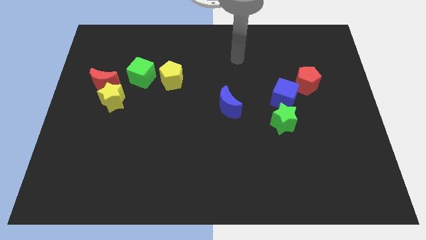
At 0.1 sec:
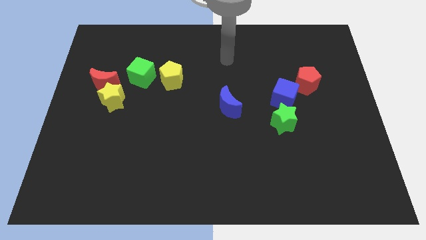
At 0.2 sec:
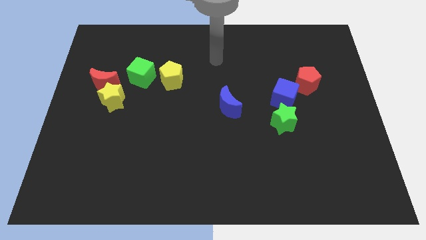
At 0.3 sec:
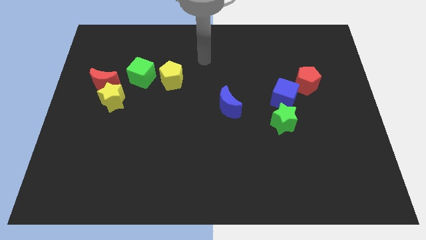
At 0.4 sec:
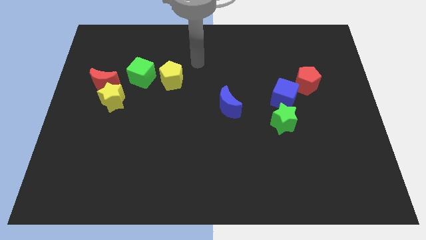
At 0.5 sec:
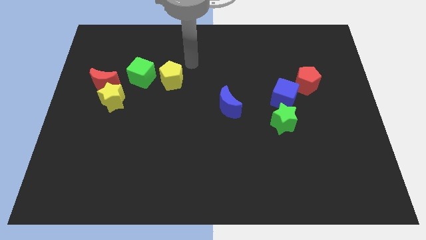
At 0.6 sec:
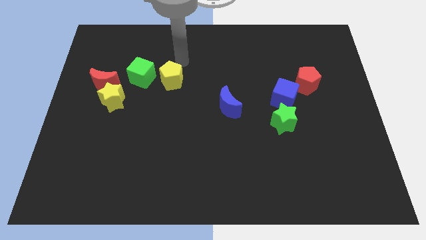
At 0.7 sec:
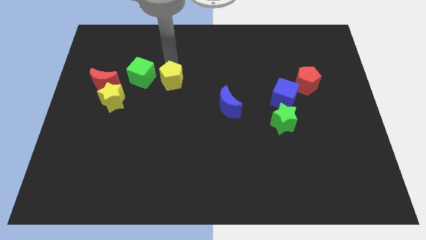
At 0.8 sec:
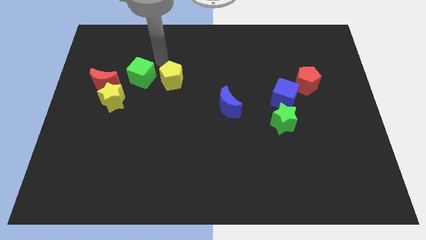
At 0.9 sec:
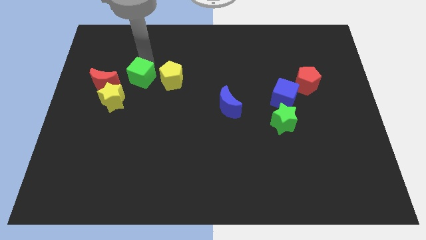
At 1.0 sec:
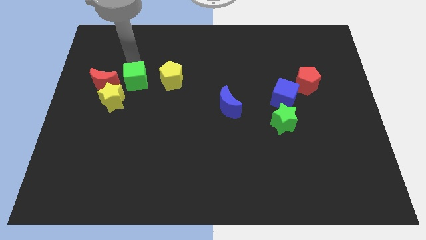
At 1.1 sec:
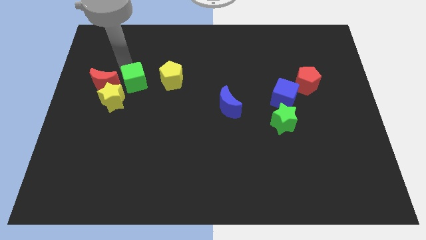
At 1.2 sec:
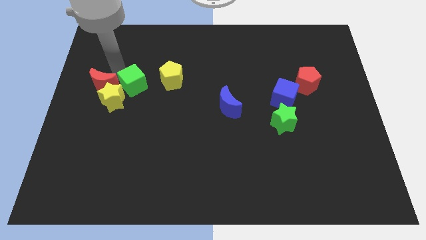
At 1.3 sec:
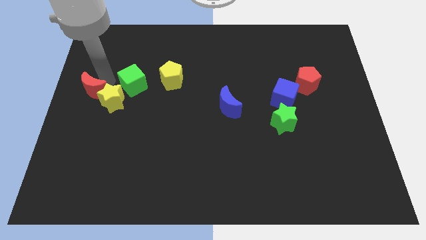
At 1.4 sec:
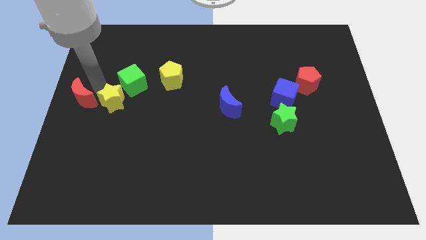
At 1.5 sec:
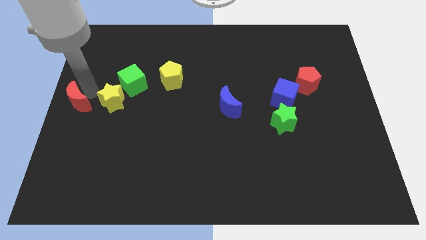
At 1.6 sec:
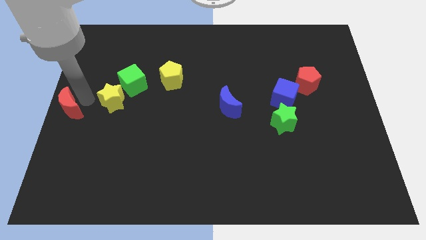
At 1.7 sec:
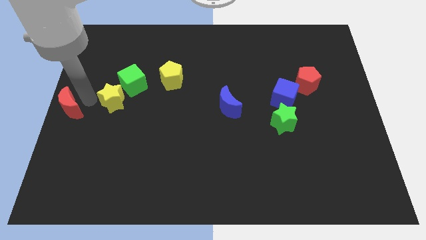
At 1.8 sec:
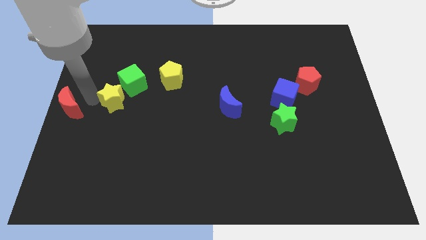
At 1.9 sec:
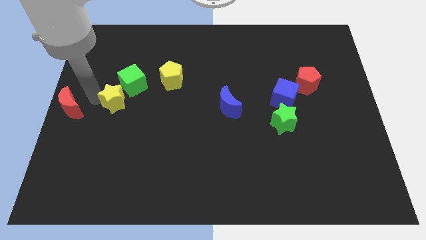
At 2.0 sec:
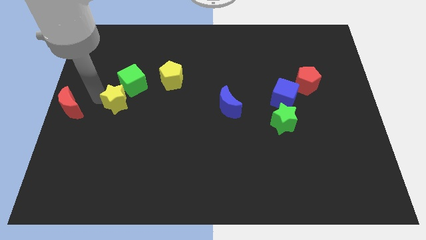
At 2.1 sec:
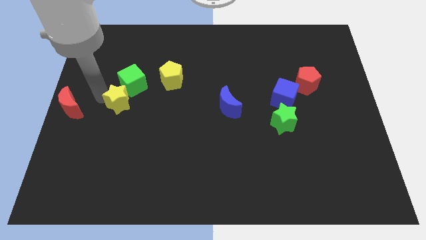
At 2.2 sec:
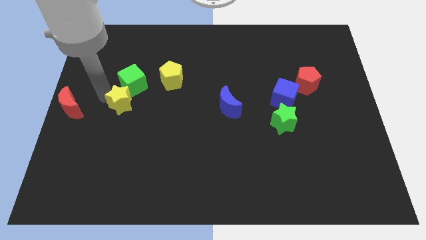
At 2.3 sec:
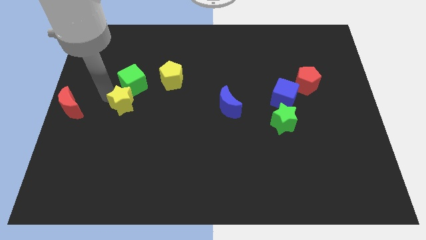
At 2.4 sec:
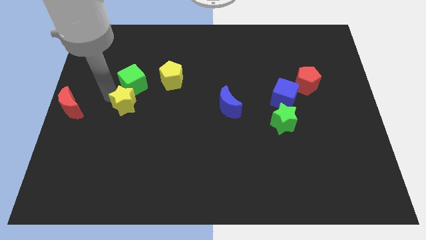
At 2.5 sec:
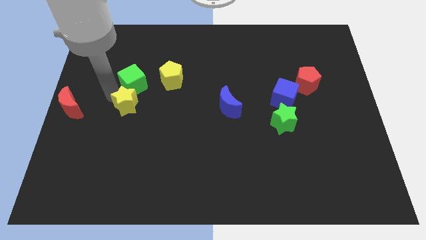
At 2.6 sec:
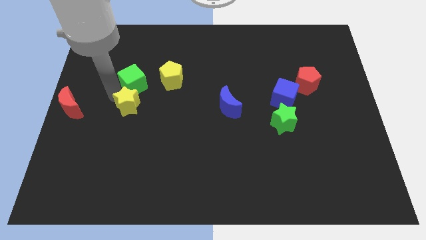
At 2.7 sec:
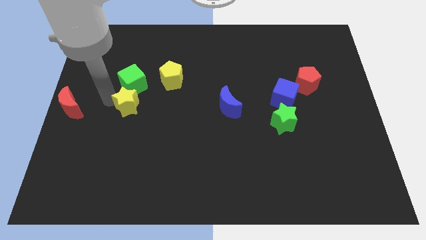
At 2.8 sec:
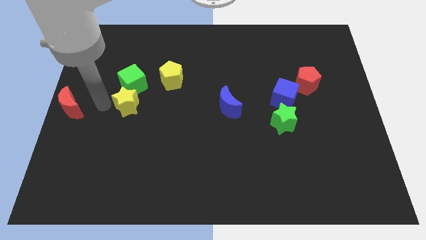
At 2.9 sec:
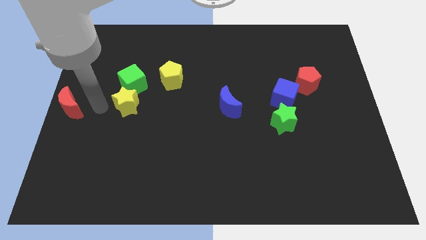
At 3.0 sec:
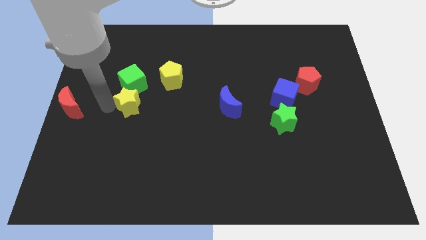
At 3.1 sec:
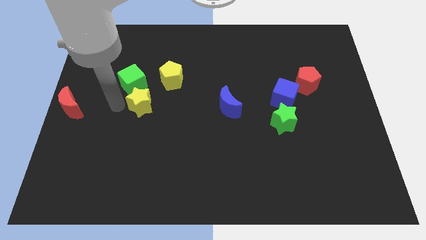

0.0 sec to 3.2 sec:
push the yellow star right a bit

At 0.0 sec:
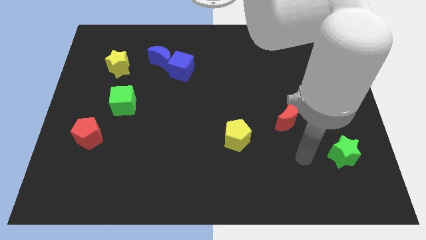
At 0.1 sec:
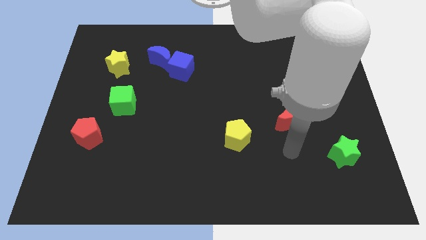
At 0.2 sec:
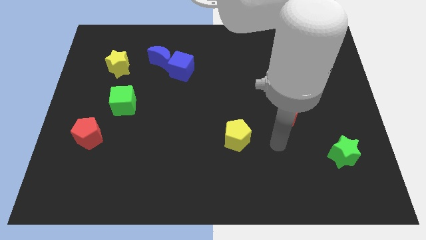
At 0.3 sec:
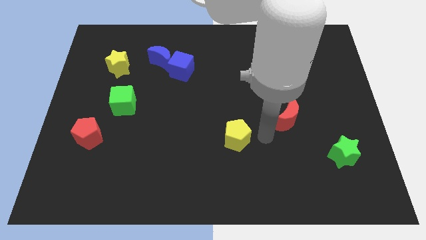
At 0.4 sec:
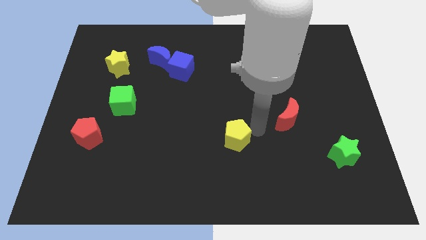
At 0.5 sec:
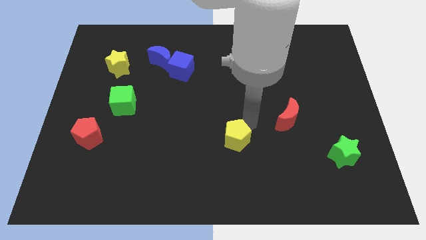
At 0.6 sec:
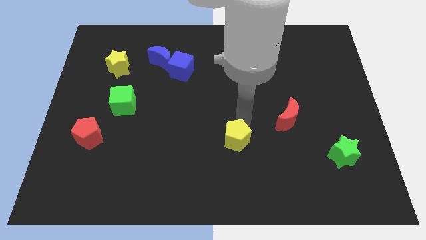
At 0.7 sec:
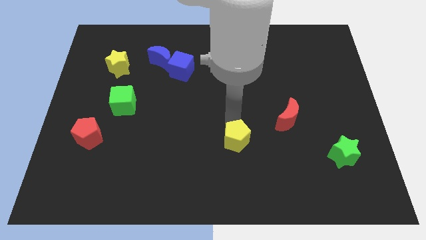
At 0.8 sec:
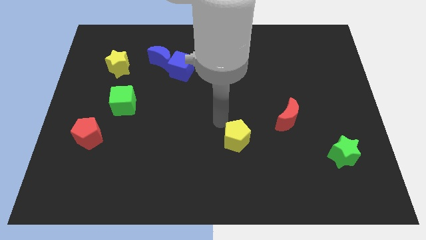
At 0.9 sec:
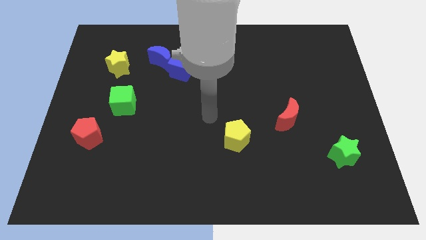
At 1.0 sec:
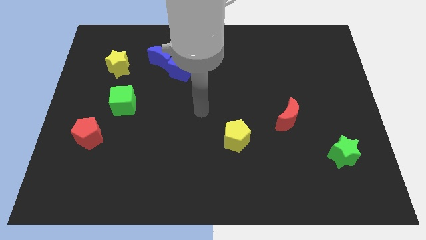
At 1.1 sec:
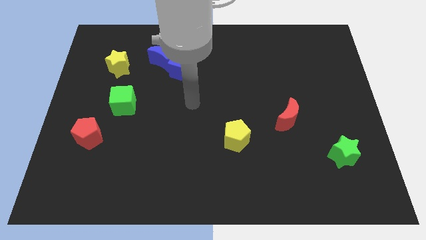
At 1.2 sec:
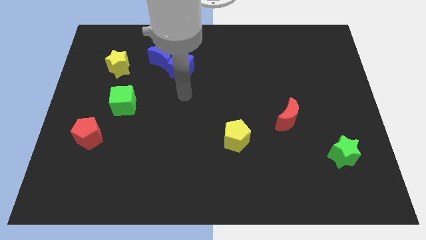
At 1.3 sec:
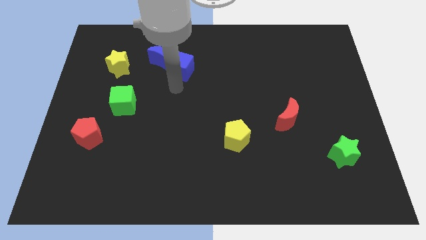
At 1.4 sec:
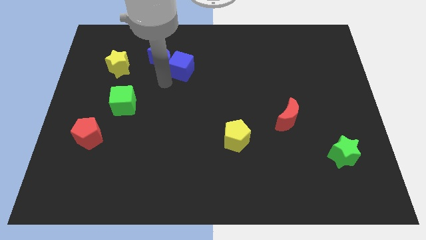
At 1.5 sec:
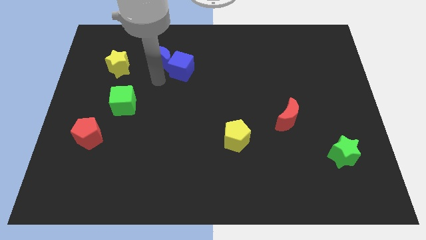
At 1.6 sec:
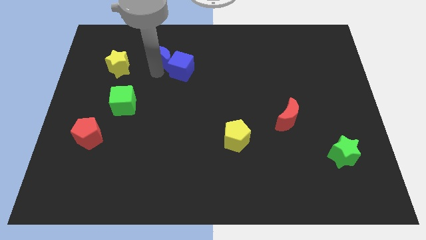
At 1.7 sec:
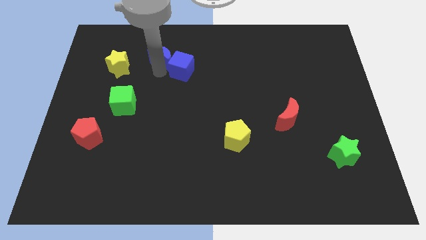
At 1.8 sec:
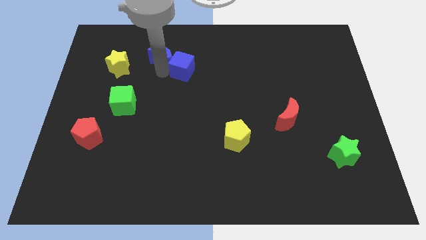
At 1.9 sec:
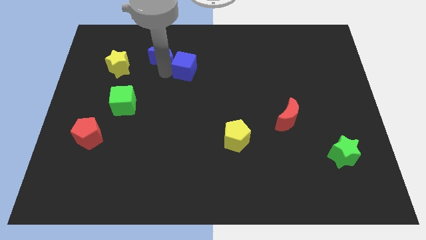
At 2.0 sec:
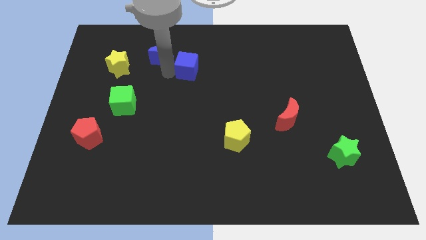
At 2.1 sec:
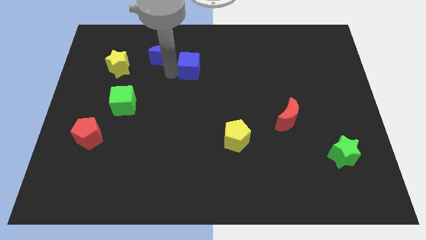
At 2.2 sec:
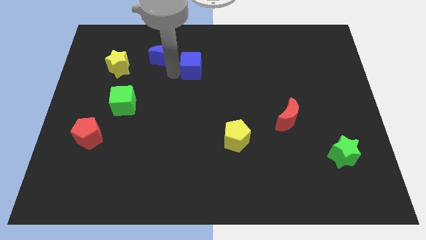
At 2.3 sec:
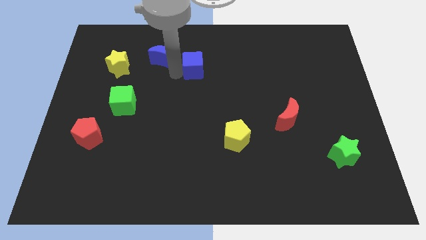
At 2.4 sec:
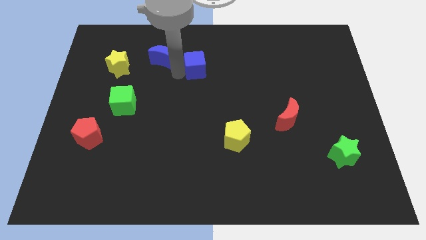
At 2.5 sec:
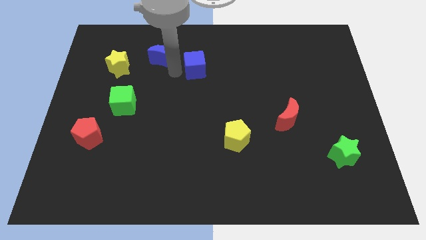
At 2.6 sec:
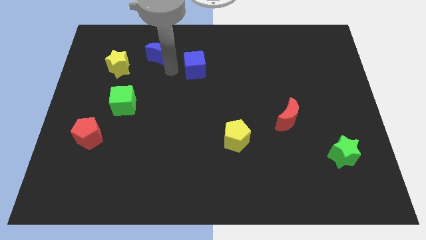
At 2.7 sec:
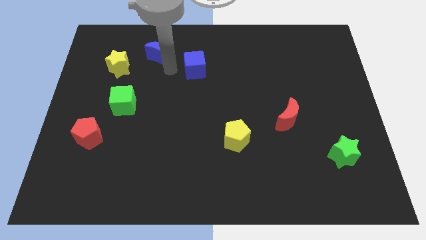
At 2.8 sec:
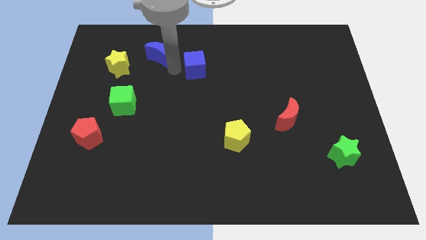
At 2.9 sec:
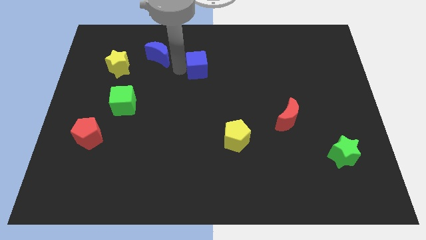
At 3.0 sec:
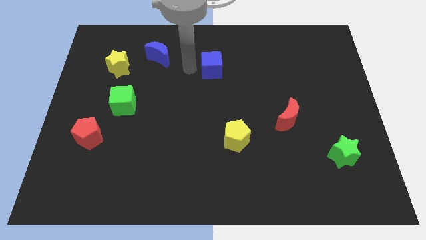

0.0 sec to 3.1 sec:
slightly slide the blue cube right

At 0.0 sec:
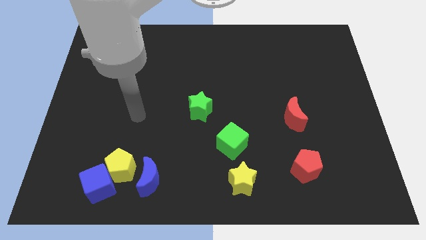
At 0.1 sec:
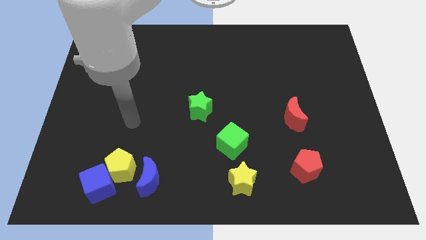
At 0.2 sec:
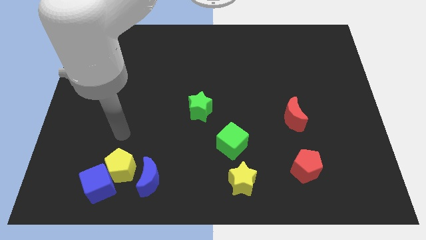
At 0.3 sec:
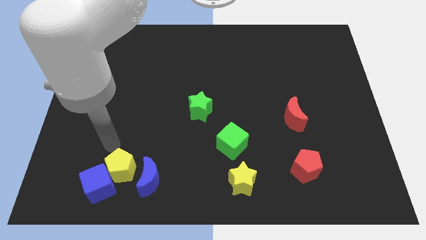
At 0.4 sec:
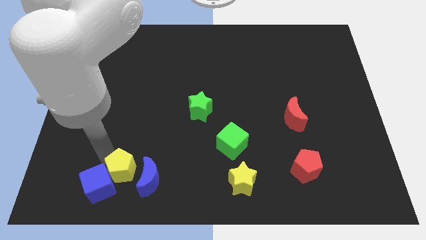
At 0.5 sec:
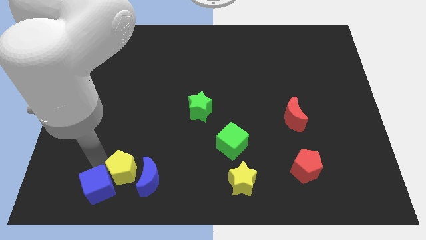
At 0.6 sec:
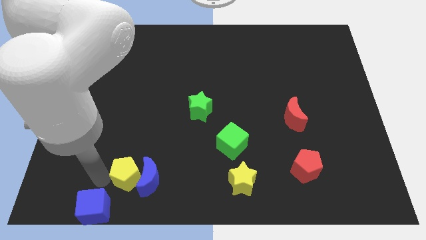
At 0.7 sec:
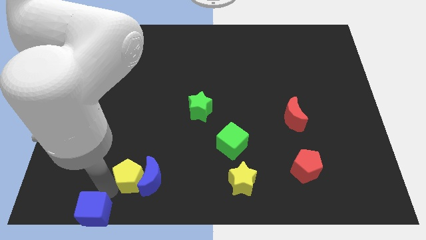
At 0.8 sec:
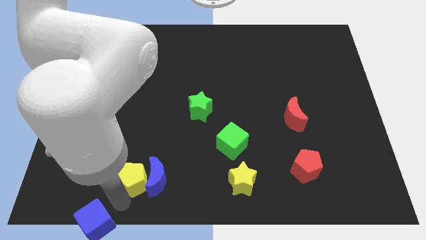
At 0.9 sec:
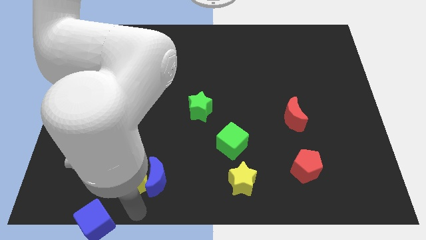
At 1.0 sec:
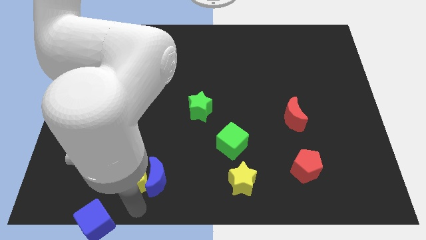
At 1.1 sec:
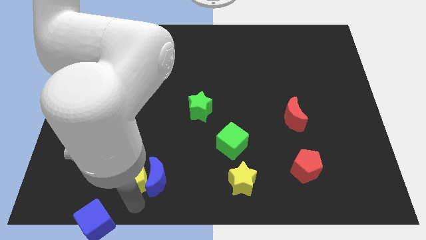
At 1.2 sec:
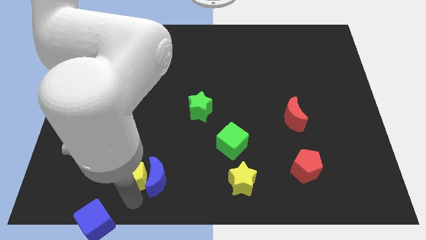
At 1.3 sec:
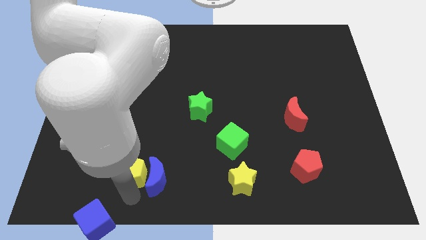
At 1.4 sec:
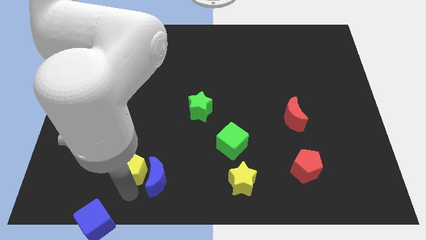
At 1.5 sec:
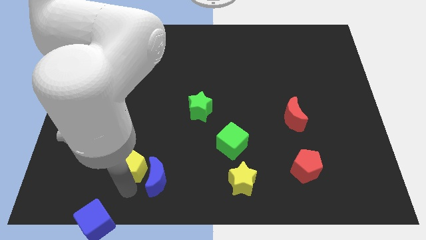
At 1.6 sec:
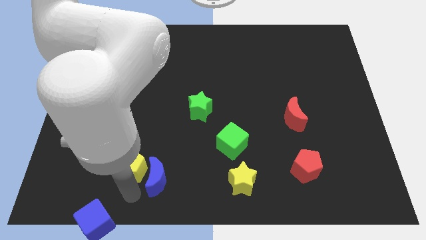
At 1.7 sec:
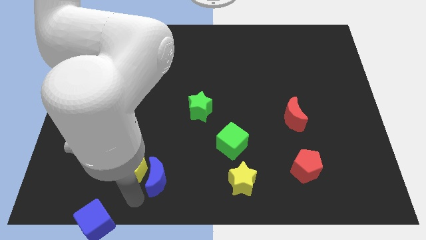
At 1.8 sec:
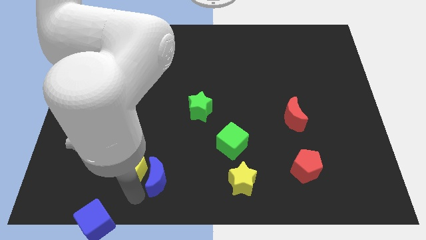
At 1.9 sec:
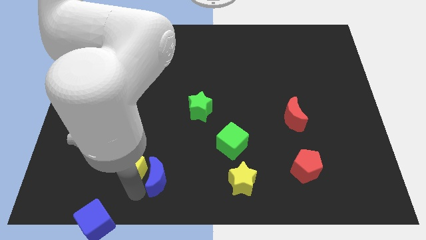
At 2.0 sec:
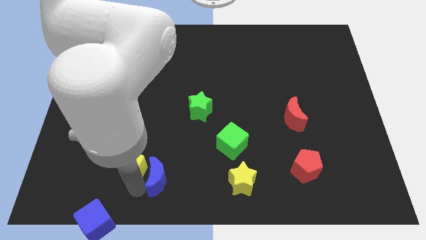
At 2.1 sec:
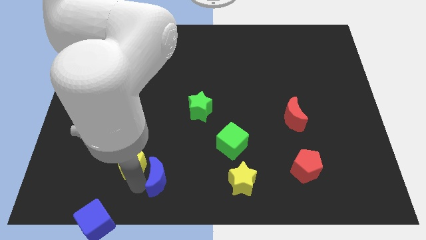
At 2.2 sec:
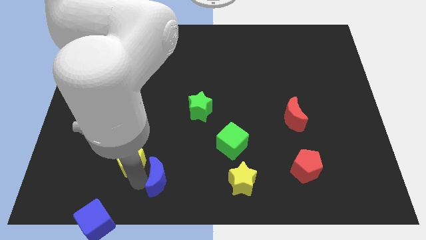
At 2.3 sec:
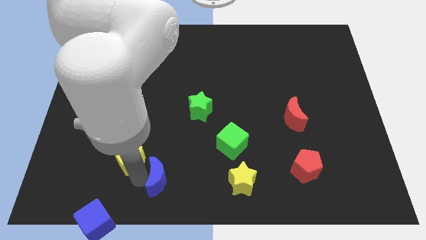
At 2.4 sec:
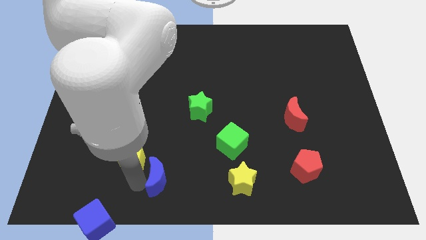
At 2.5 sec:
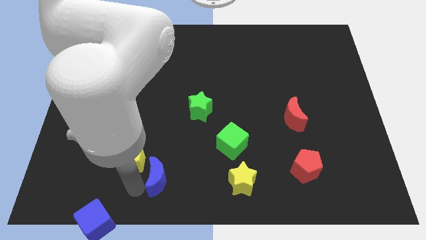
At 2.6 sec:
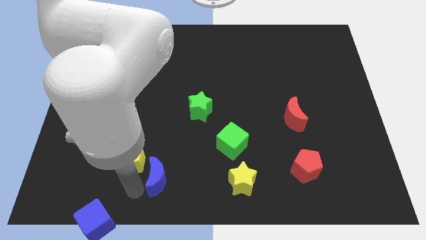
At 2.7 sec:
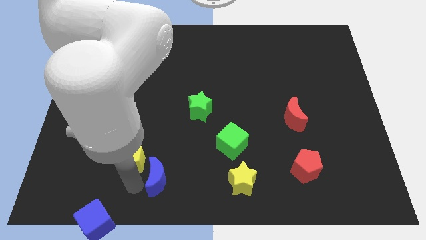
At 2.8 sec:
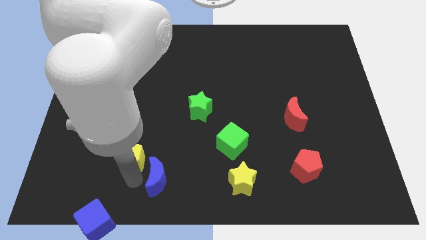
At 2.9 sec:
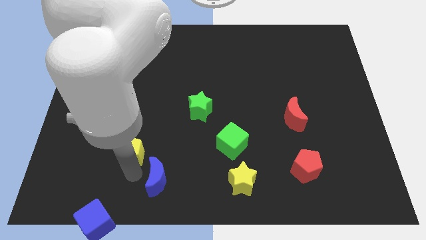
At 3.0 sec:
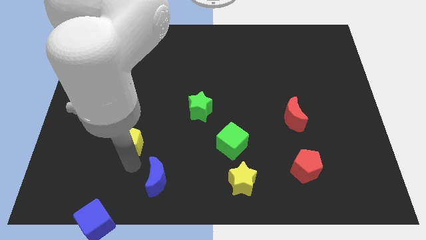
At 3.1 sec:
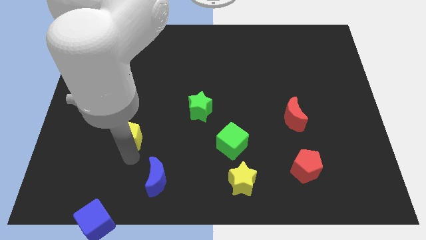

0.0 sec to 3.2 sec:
move the yellow pentagon upwards a little
